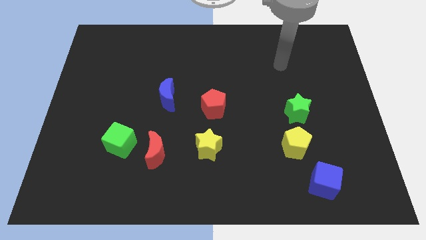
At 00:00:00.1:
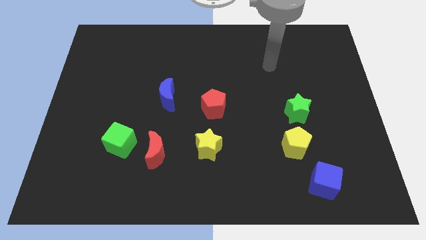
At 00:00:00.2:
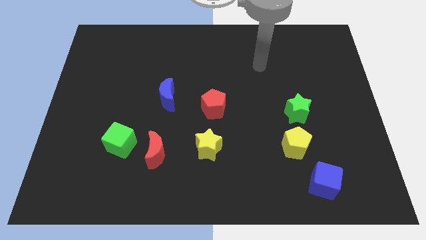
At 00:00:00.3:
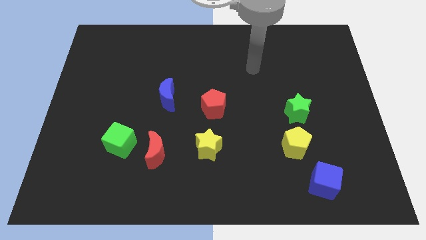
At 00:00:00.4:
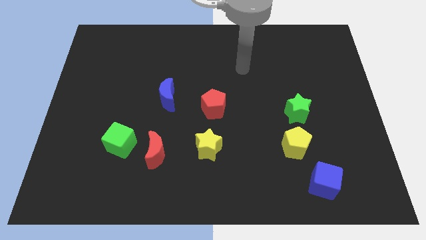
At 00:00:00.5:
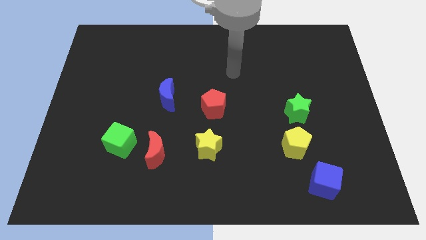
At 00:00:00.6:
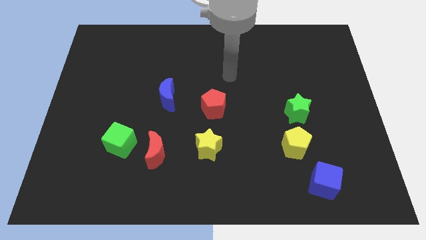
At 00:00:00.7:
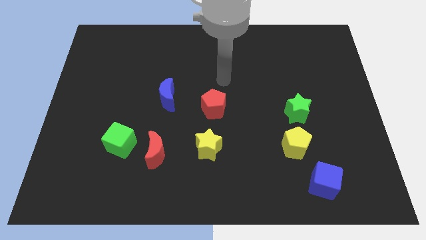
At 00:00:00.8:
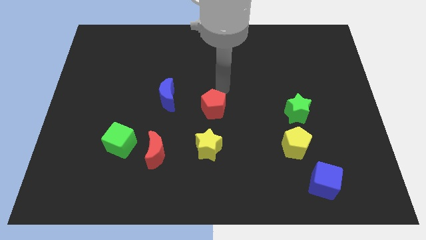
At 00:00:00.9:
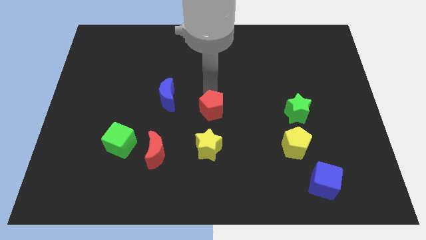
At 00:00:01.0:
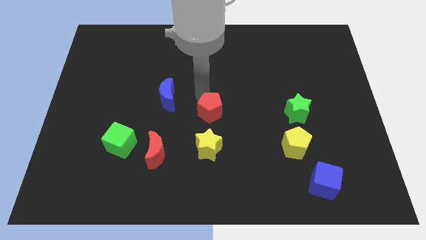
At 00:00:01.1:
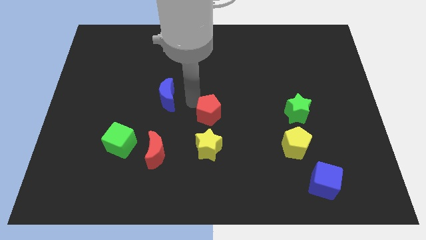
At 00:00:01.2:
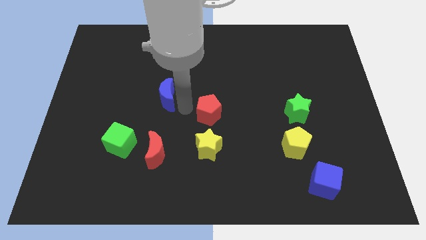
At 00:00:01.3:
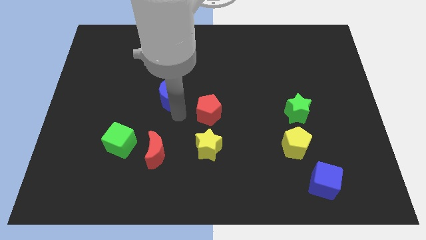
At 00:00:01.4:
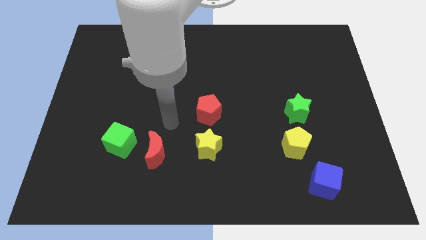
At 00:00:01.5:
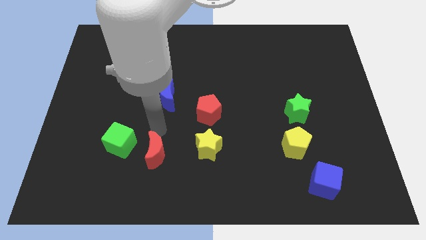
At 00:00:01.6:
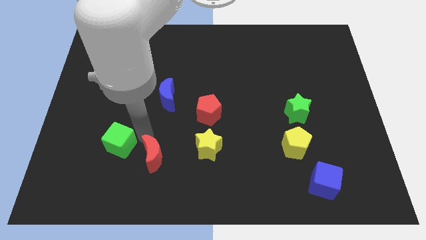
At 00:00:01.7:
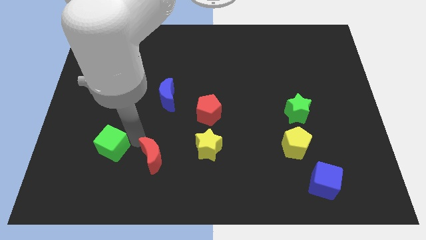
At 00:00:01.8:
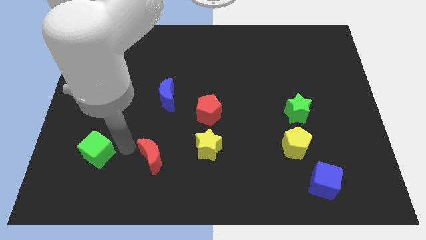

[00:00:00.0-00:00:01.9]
move the red moon away from the green cube

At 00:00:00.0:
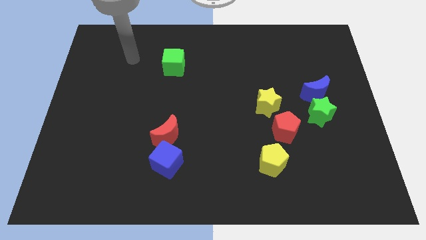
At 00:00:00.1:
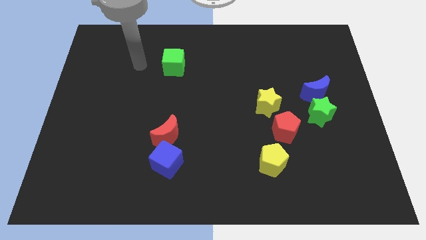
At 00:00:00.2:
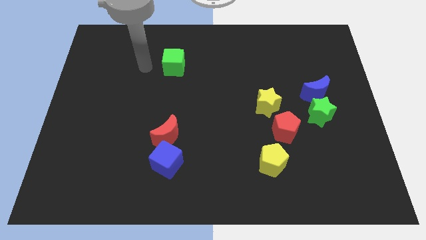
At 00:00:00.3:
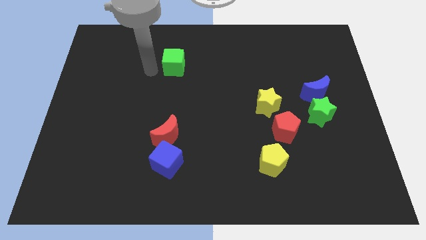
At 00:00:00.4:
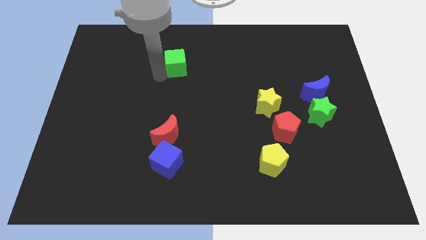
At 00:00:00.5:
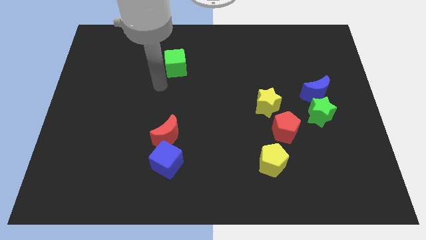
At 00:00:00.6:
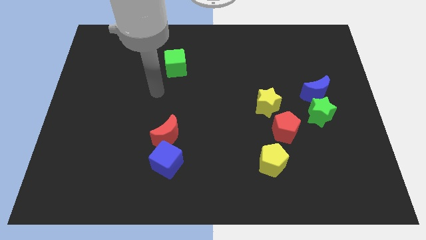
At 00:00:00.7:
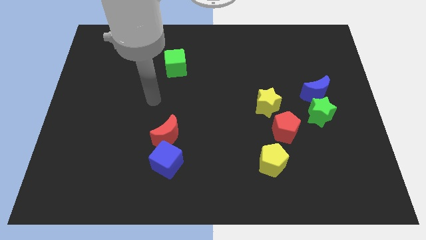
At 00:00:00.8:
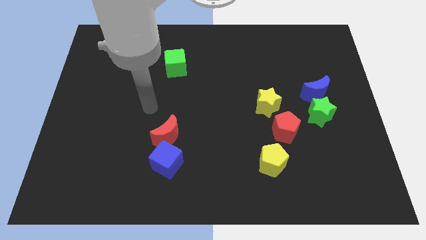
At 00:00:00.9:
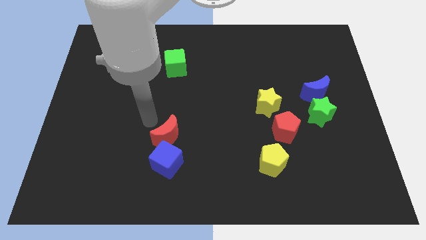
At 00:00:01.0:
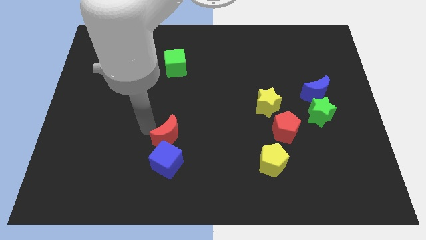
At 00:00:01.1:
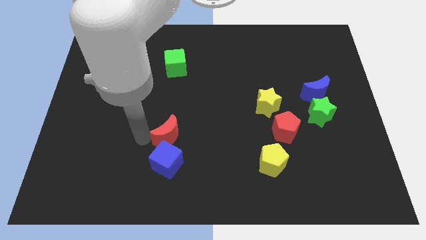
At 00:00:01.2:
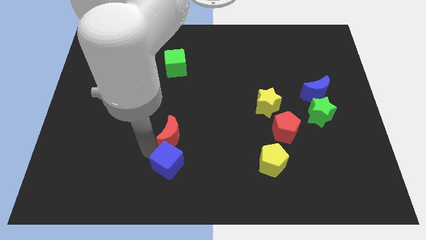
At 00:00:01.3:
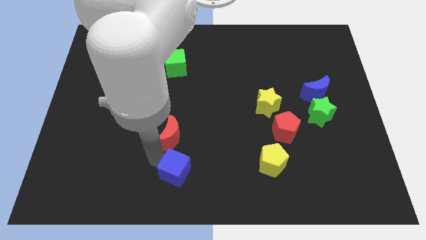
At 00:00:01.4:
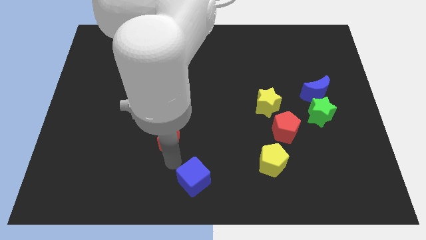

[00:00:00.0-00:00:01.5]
separate the red moon from the blue cube

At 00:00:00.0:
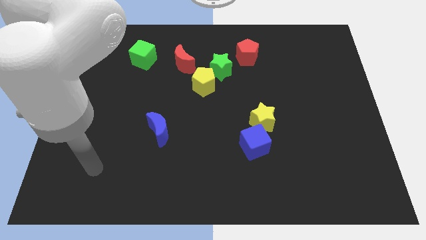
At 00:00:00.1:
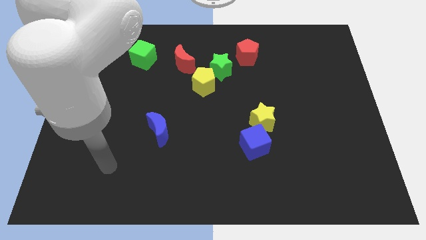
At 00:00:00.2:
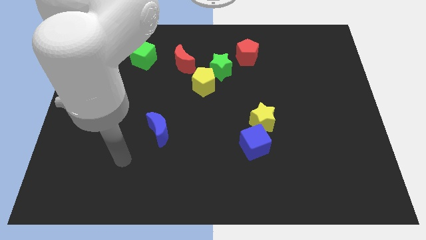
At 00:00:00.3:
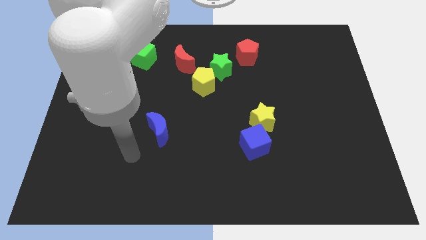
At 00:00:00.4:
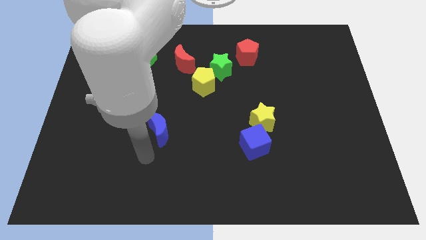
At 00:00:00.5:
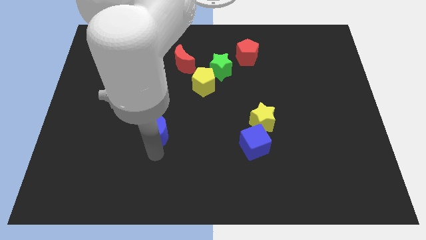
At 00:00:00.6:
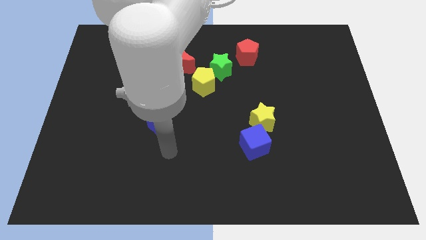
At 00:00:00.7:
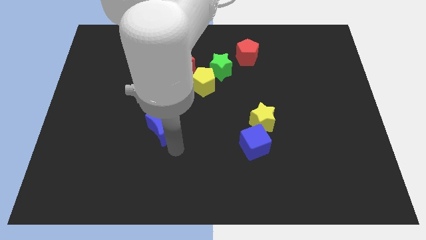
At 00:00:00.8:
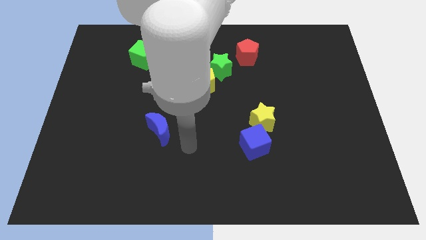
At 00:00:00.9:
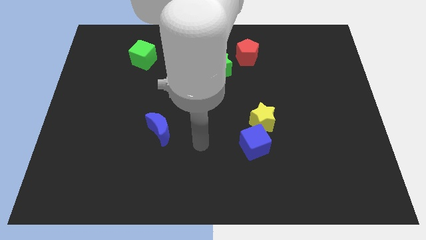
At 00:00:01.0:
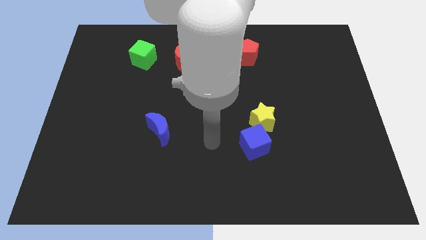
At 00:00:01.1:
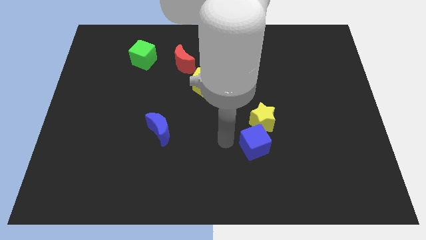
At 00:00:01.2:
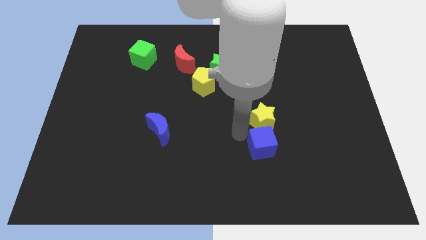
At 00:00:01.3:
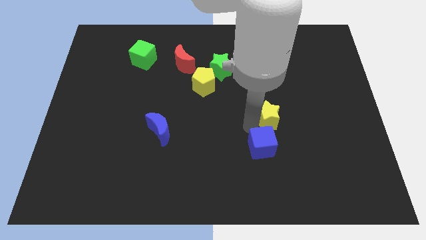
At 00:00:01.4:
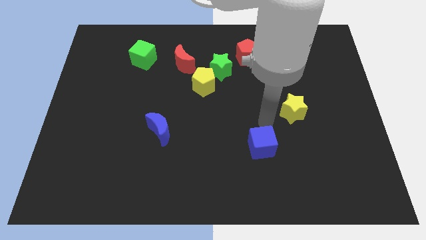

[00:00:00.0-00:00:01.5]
pull the blue cube apart from the yellow star

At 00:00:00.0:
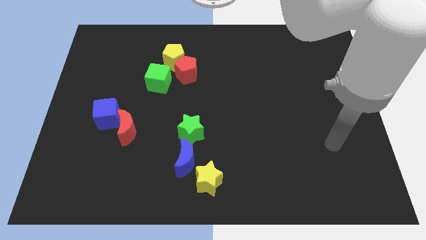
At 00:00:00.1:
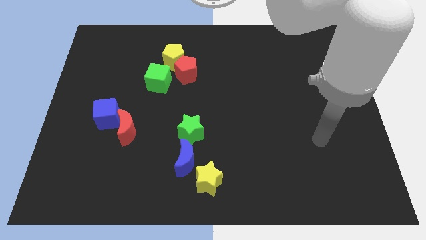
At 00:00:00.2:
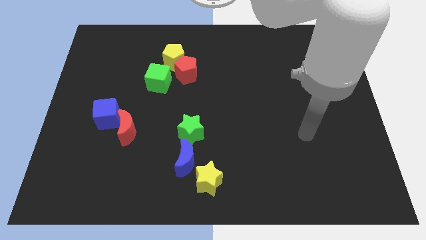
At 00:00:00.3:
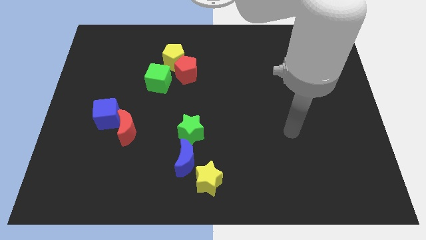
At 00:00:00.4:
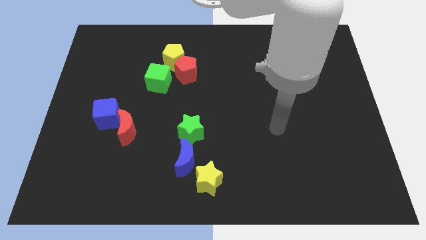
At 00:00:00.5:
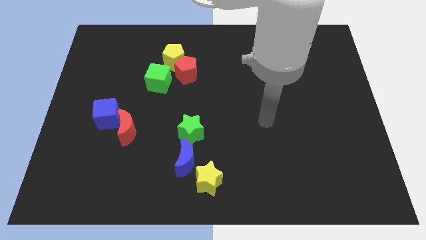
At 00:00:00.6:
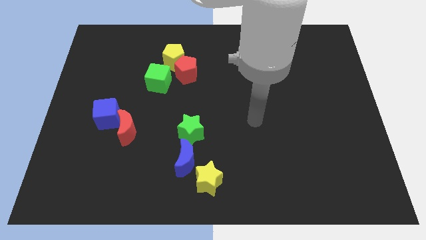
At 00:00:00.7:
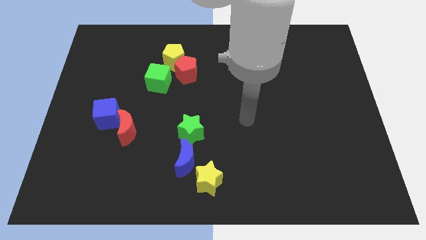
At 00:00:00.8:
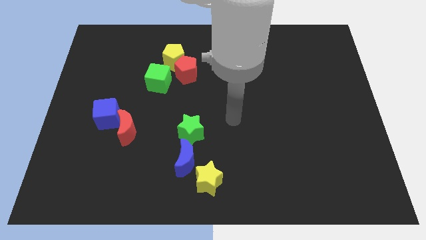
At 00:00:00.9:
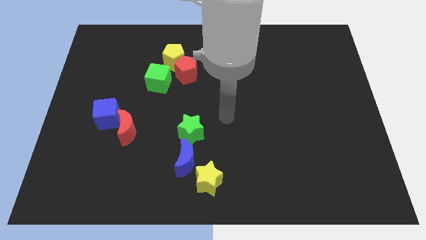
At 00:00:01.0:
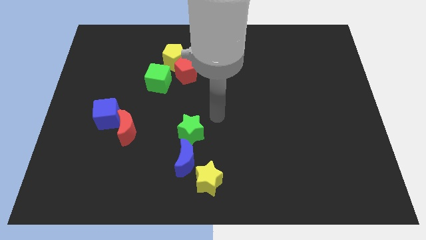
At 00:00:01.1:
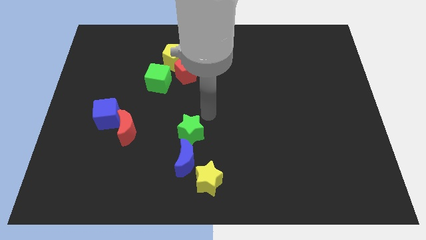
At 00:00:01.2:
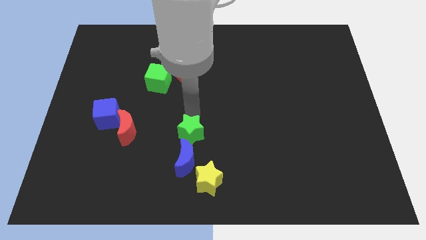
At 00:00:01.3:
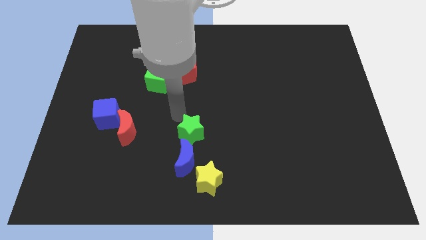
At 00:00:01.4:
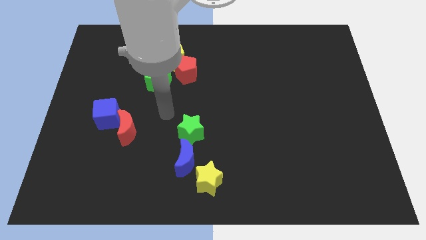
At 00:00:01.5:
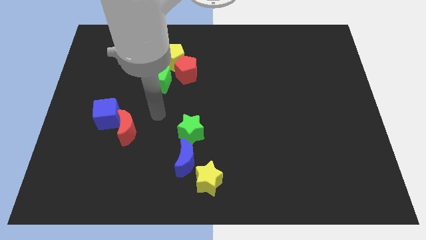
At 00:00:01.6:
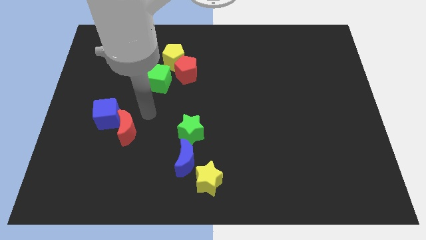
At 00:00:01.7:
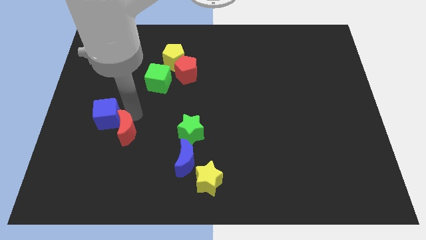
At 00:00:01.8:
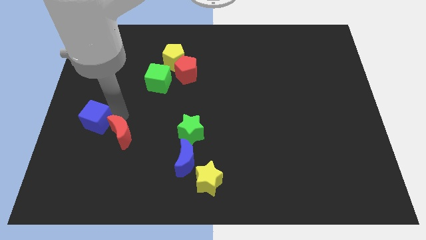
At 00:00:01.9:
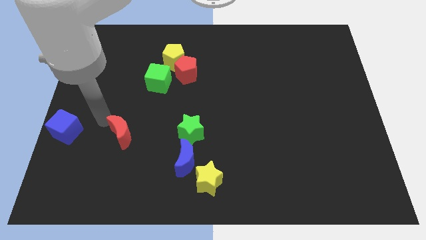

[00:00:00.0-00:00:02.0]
pull the red moon apart from the blue cube

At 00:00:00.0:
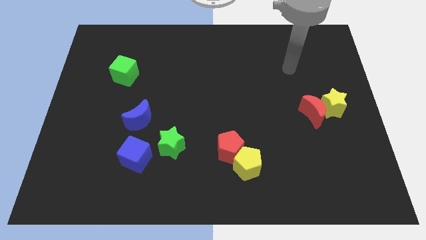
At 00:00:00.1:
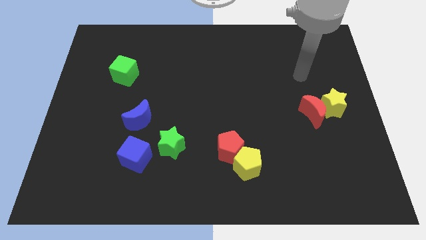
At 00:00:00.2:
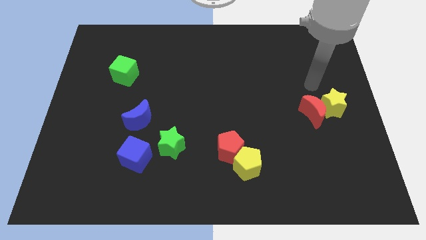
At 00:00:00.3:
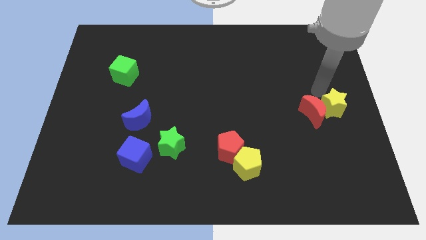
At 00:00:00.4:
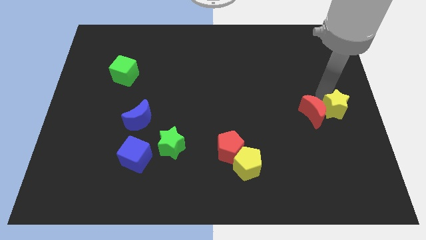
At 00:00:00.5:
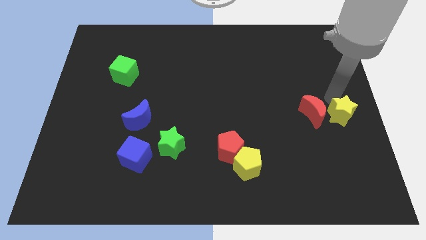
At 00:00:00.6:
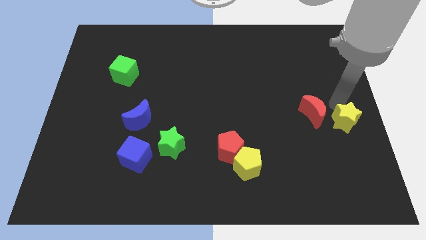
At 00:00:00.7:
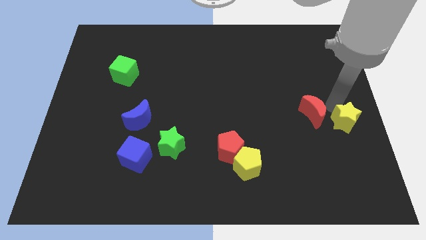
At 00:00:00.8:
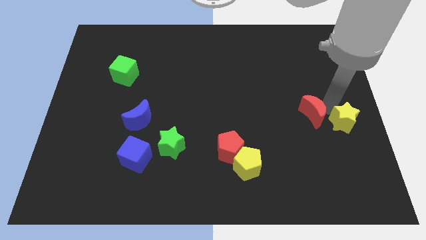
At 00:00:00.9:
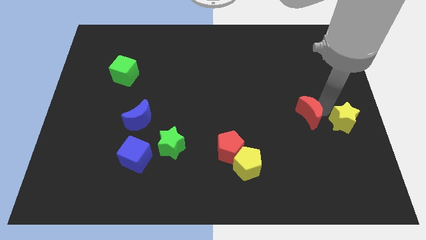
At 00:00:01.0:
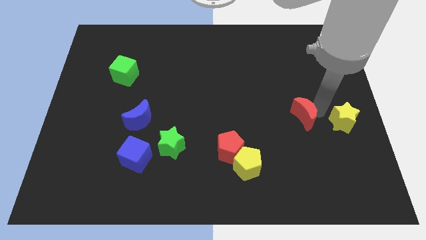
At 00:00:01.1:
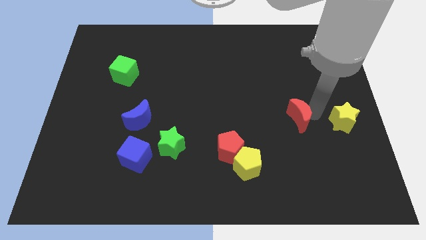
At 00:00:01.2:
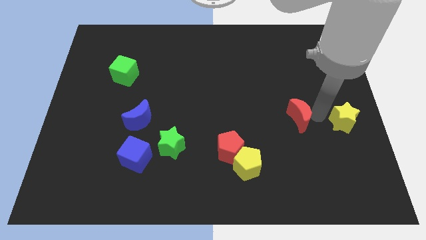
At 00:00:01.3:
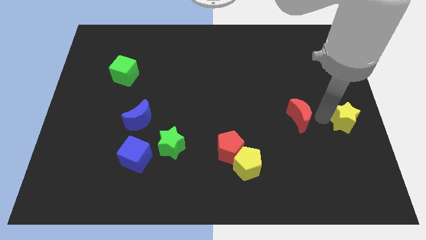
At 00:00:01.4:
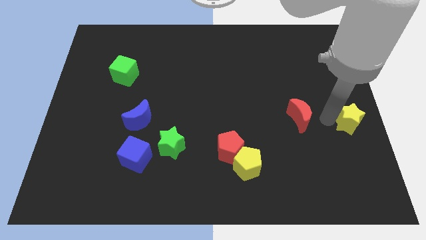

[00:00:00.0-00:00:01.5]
move the red moon away from the yellow star

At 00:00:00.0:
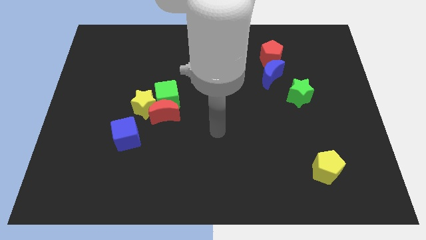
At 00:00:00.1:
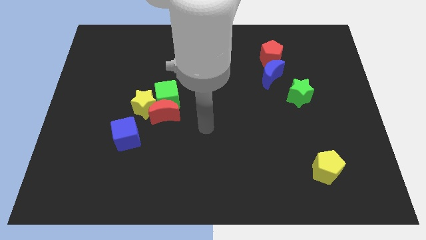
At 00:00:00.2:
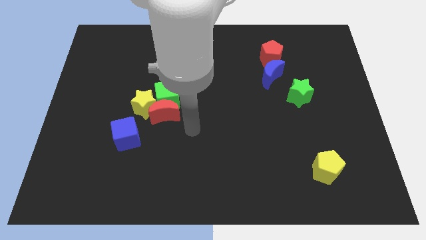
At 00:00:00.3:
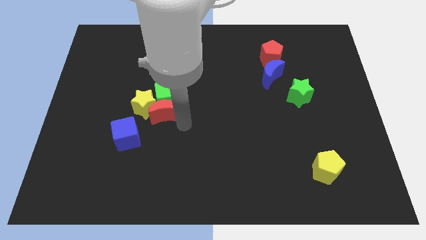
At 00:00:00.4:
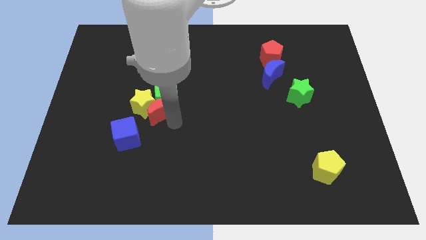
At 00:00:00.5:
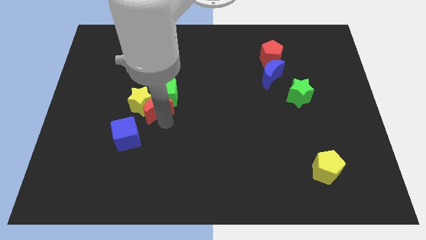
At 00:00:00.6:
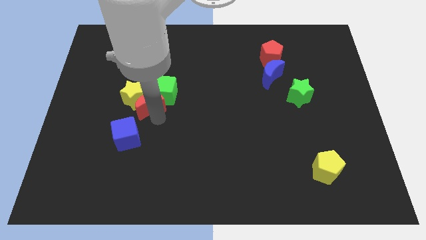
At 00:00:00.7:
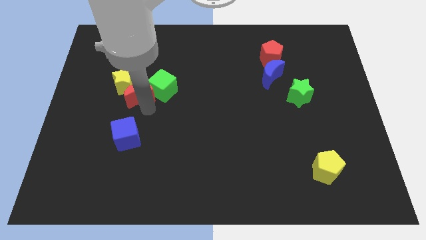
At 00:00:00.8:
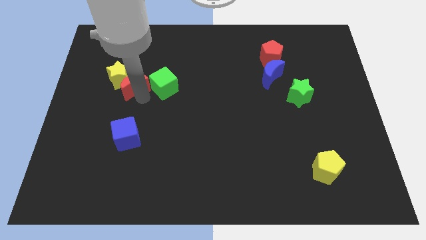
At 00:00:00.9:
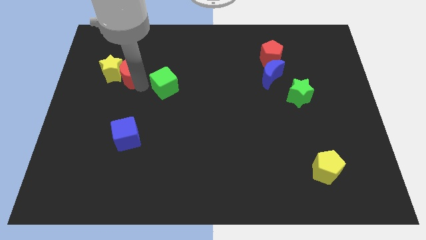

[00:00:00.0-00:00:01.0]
pull the green cube apart from the red moon and yellow star
